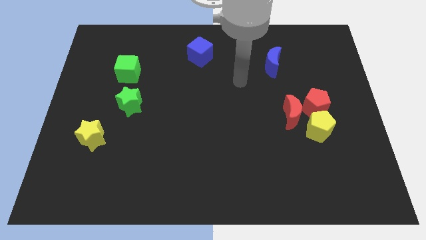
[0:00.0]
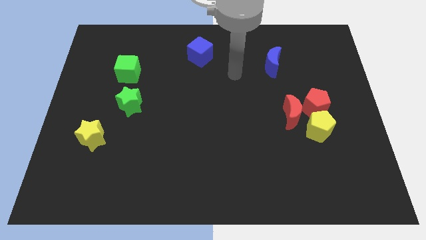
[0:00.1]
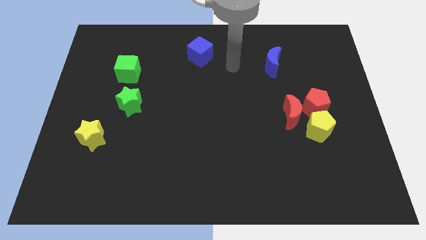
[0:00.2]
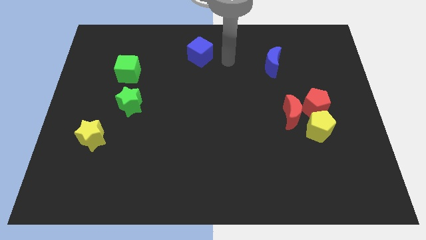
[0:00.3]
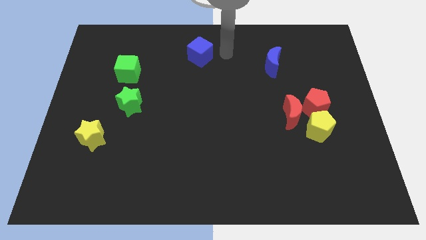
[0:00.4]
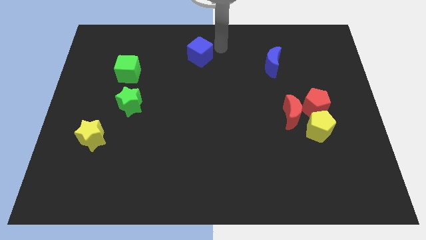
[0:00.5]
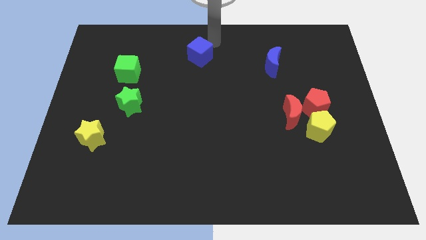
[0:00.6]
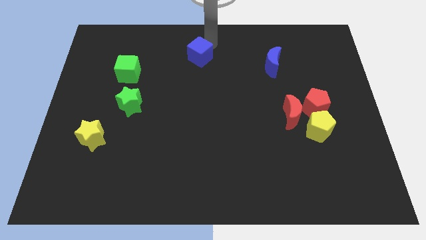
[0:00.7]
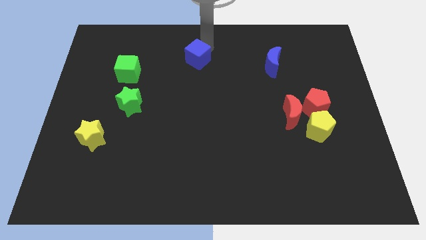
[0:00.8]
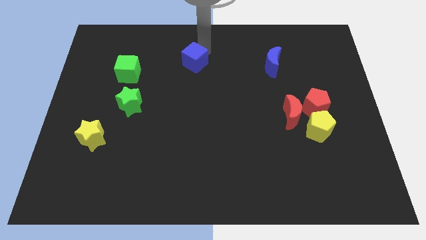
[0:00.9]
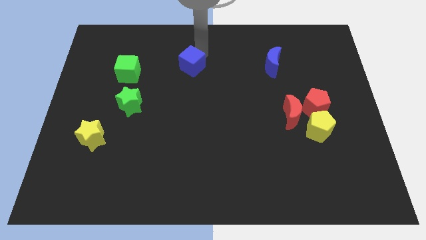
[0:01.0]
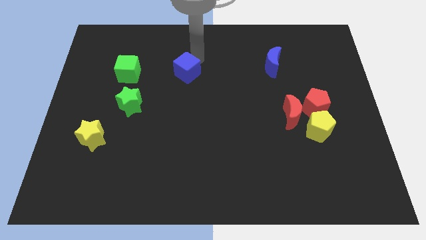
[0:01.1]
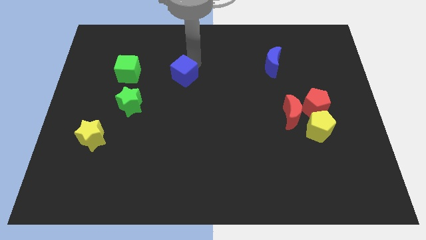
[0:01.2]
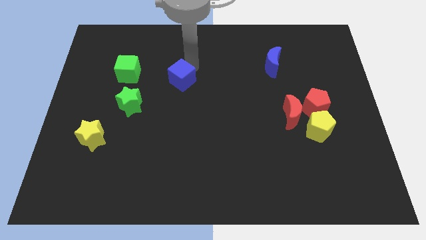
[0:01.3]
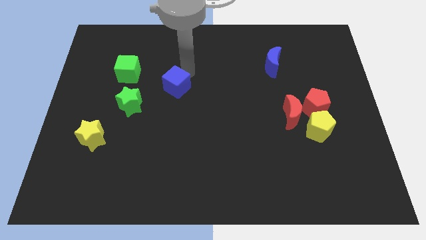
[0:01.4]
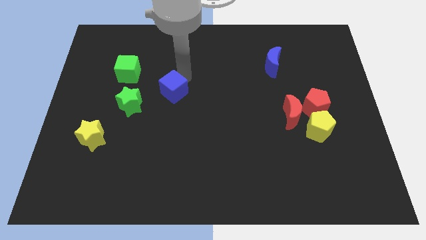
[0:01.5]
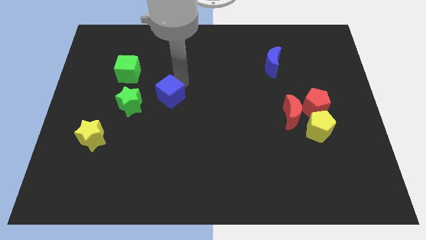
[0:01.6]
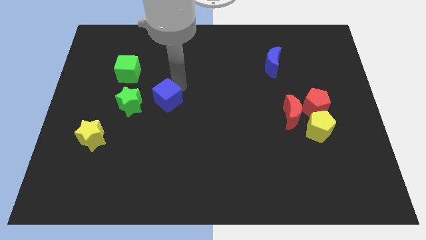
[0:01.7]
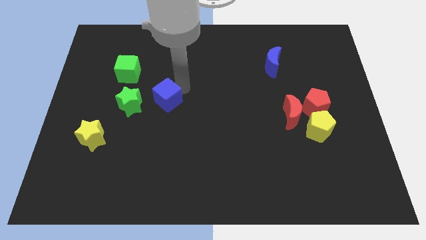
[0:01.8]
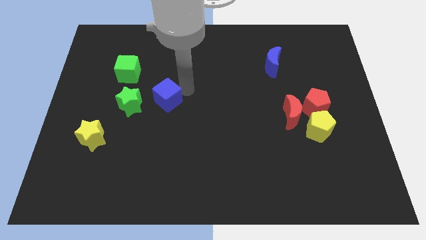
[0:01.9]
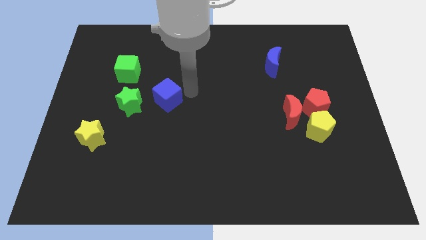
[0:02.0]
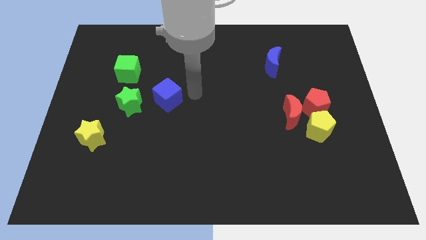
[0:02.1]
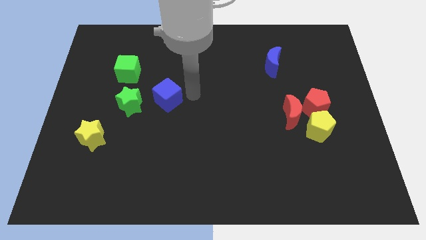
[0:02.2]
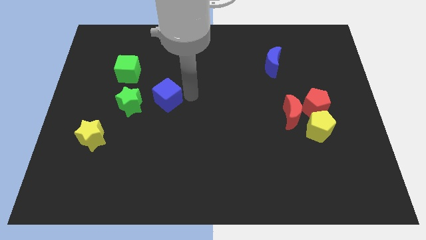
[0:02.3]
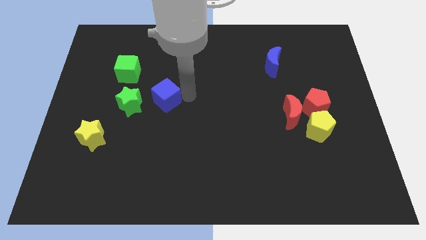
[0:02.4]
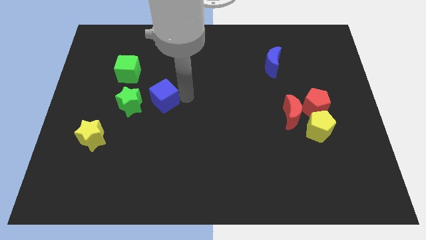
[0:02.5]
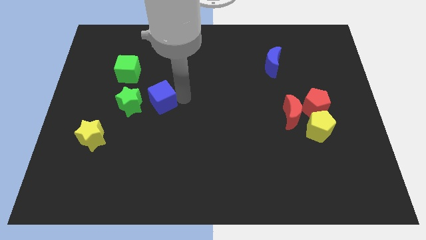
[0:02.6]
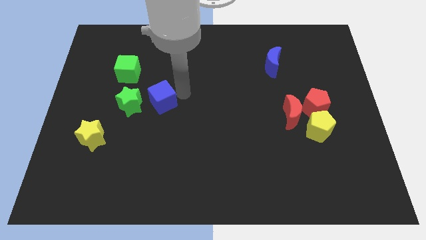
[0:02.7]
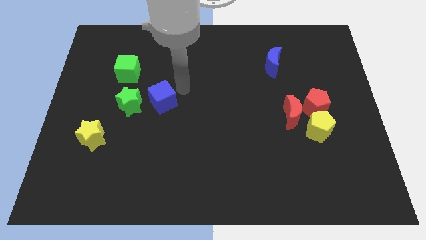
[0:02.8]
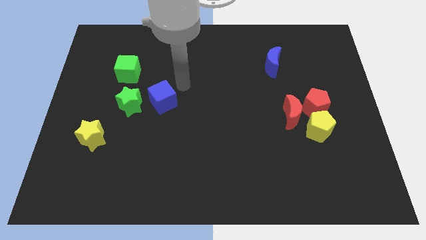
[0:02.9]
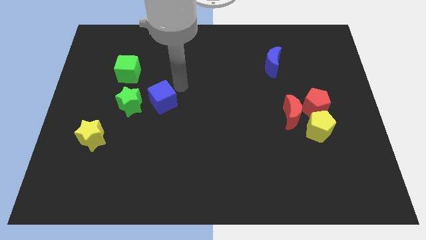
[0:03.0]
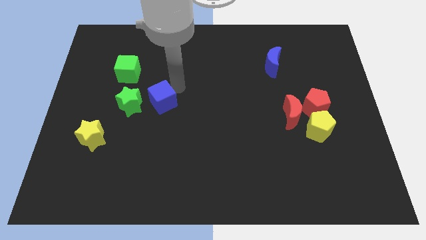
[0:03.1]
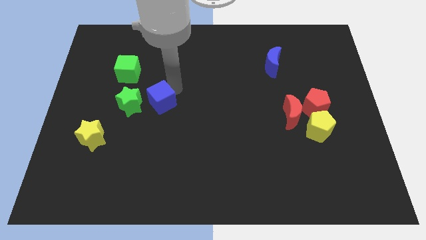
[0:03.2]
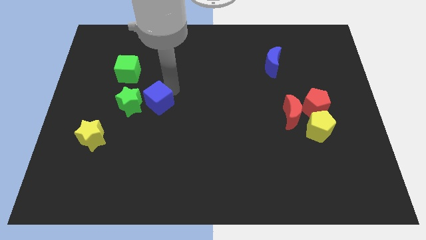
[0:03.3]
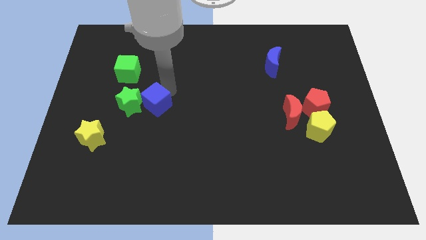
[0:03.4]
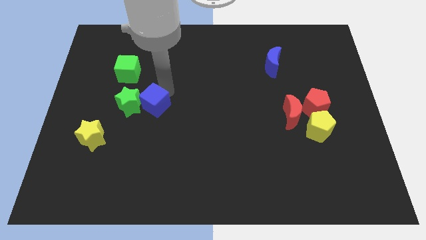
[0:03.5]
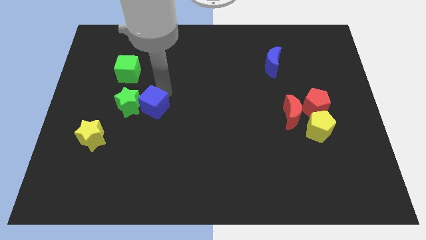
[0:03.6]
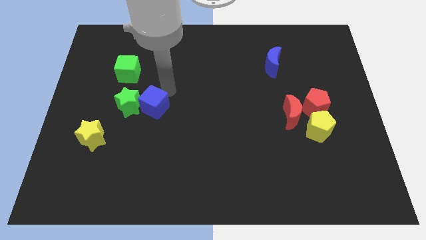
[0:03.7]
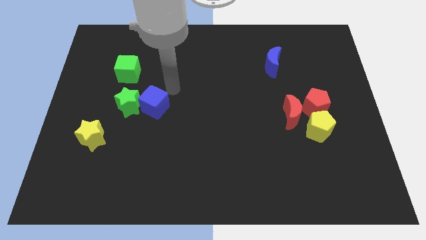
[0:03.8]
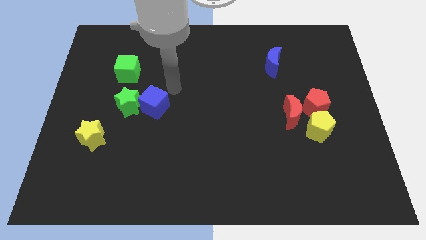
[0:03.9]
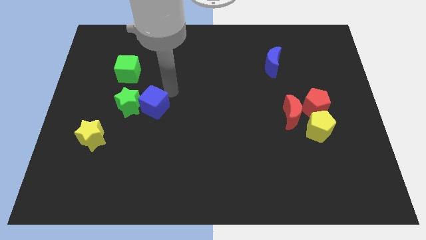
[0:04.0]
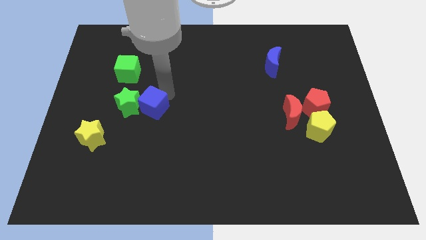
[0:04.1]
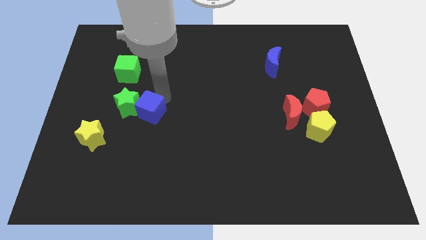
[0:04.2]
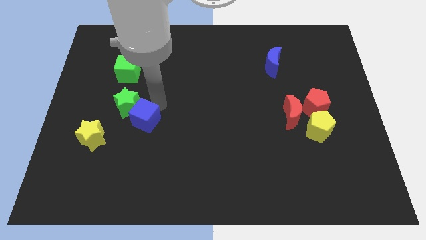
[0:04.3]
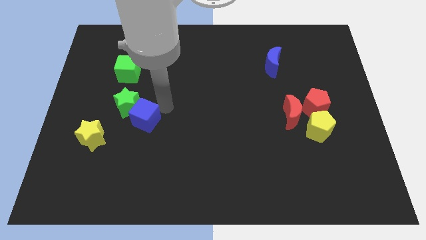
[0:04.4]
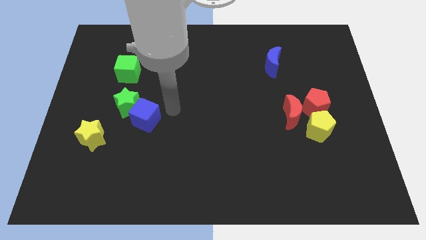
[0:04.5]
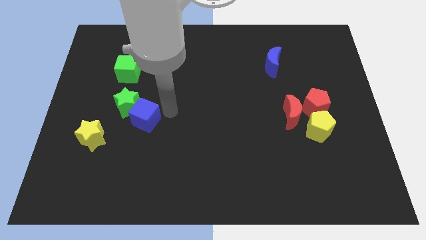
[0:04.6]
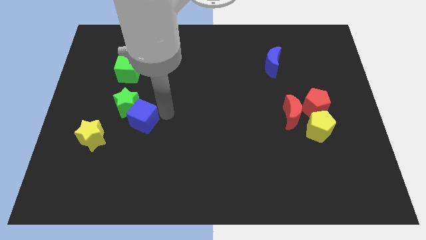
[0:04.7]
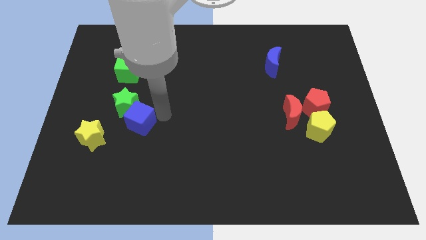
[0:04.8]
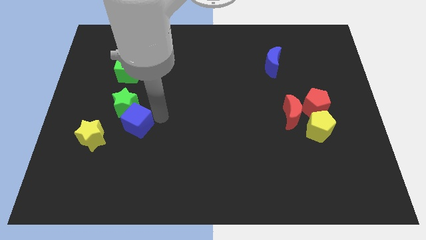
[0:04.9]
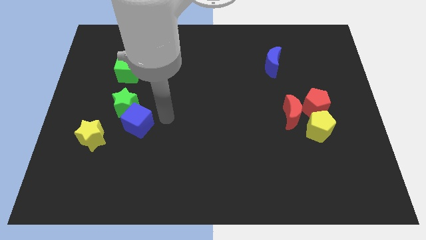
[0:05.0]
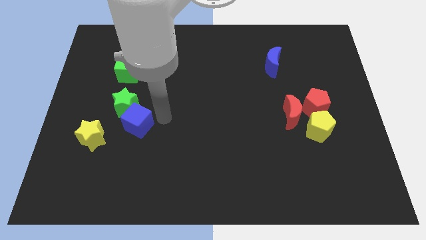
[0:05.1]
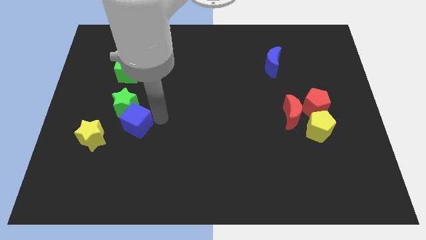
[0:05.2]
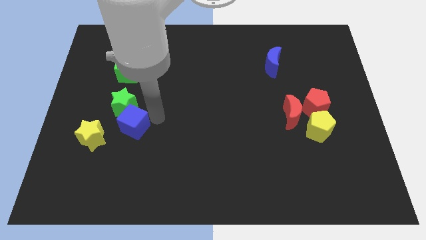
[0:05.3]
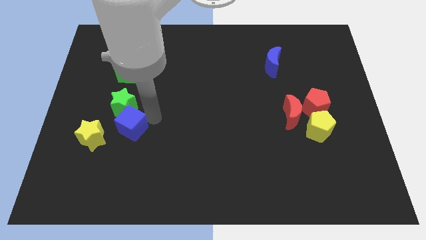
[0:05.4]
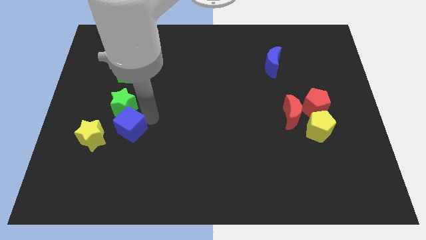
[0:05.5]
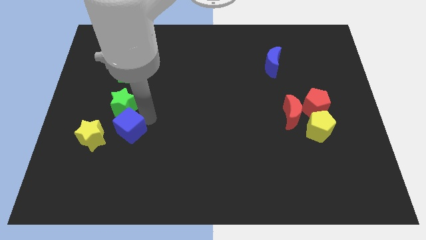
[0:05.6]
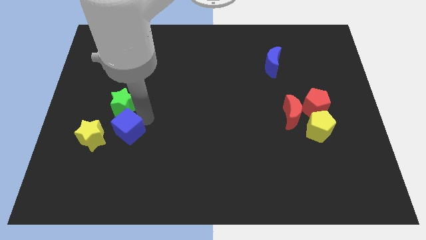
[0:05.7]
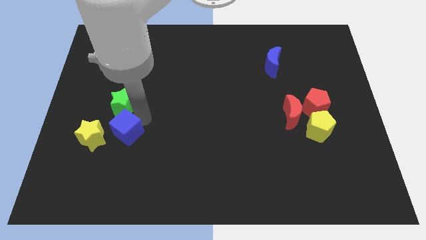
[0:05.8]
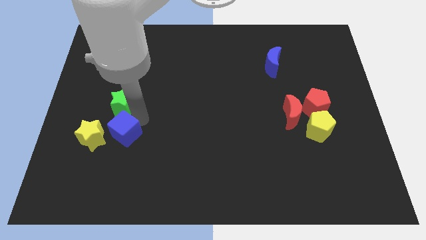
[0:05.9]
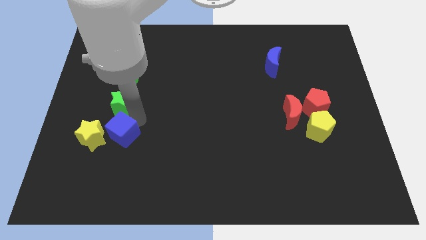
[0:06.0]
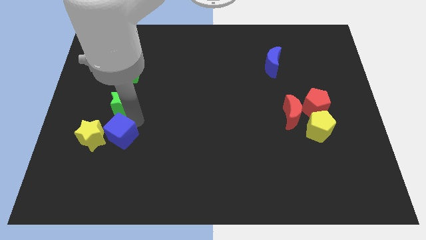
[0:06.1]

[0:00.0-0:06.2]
put the blue cube next to the yellow star

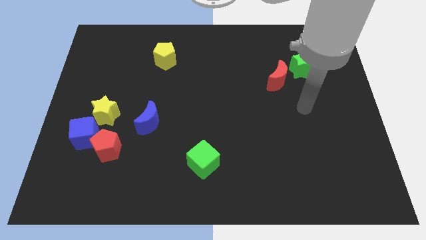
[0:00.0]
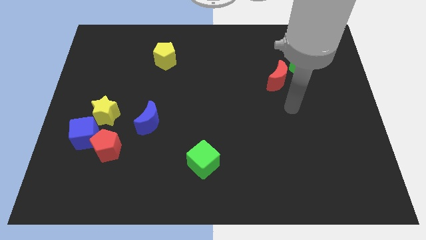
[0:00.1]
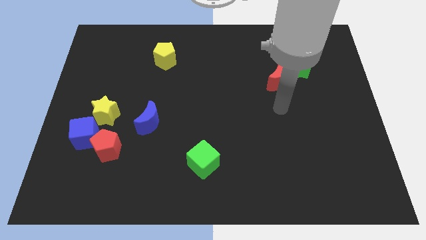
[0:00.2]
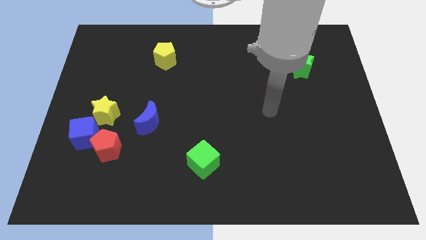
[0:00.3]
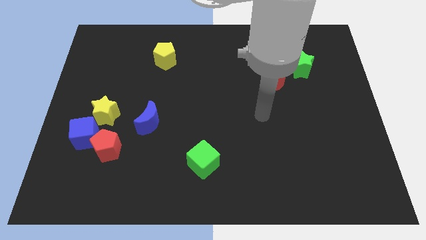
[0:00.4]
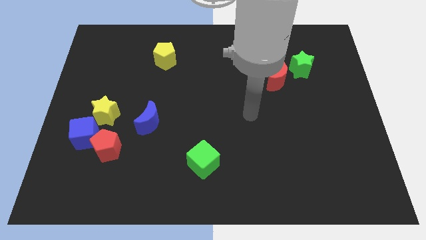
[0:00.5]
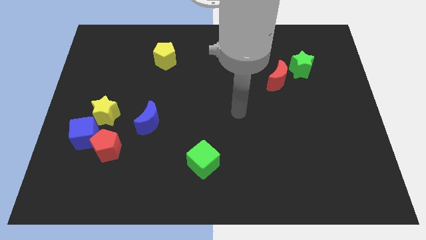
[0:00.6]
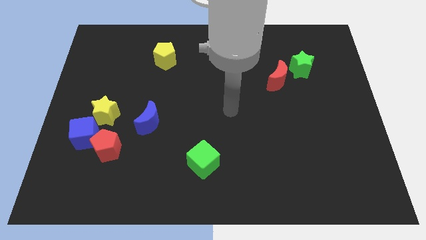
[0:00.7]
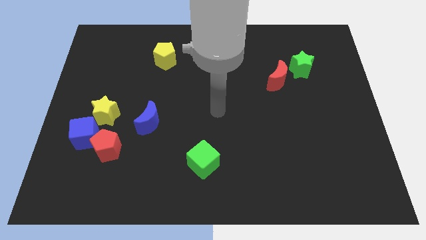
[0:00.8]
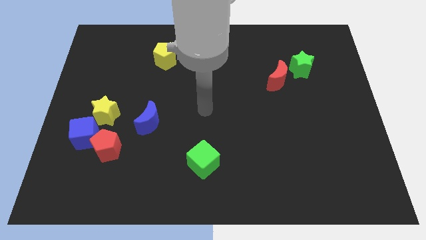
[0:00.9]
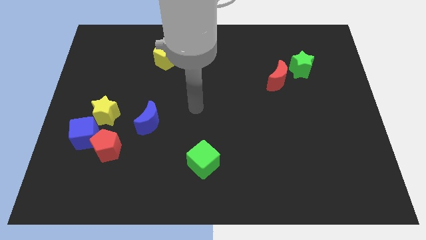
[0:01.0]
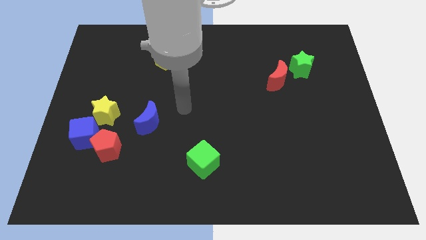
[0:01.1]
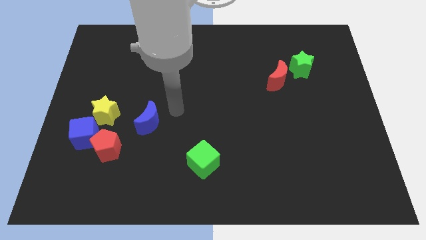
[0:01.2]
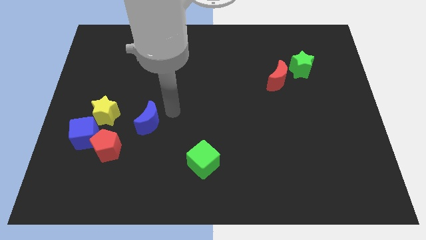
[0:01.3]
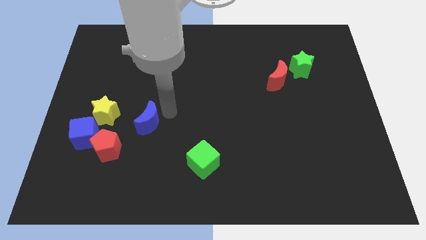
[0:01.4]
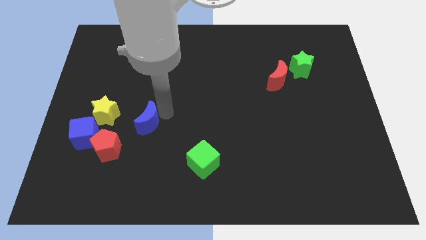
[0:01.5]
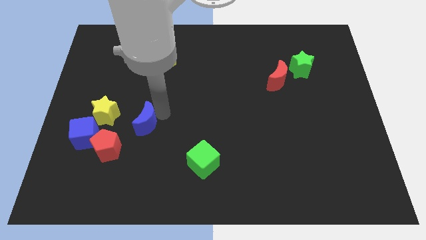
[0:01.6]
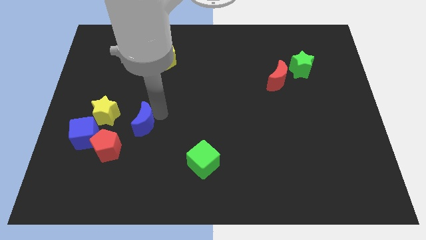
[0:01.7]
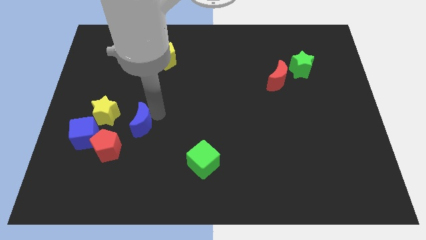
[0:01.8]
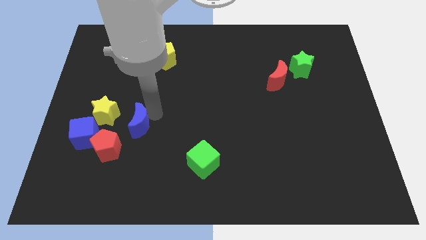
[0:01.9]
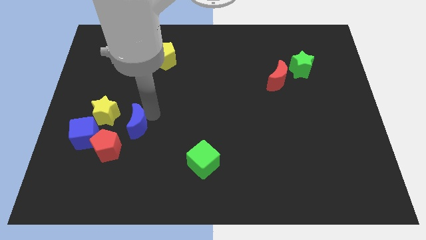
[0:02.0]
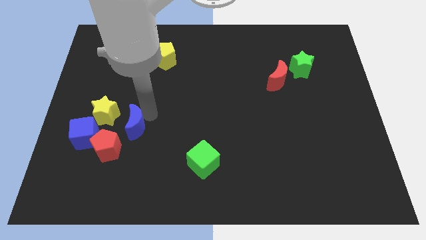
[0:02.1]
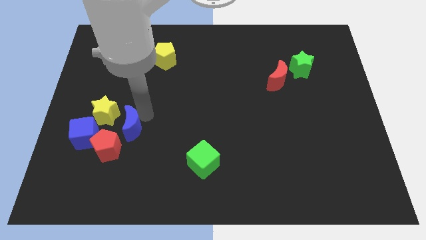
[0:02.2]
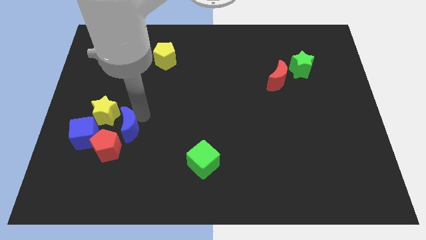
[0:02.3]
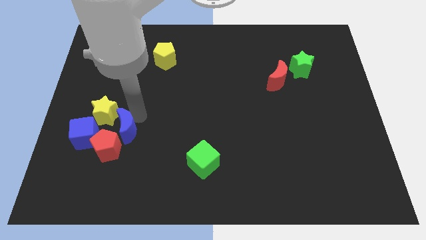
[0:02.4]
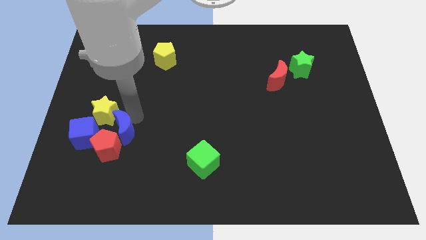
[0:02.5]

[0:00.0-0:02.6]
push the blue moon to the red pentagon
